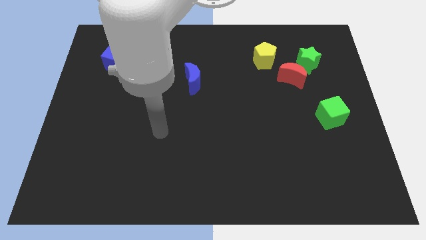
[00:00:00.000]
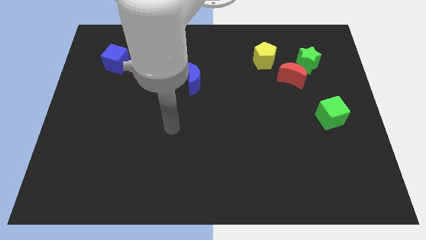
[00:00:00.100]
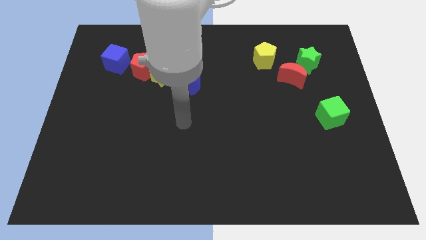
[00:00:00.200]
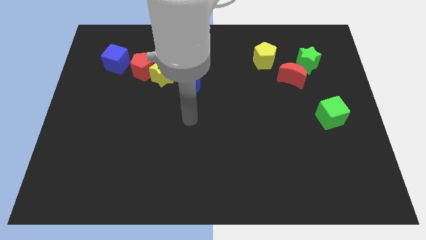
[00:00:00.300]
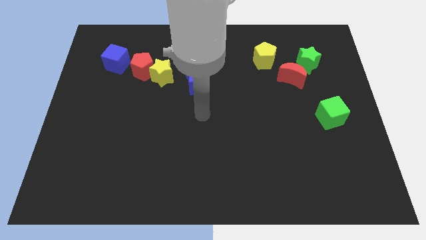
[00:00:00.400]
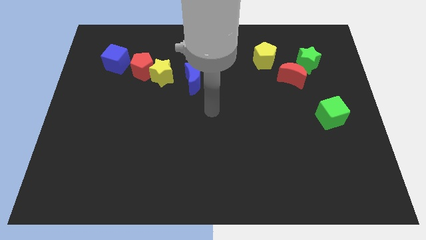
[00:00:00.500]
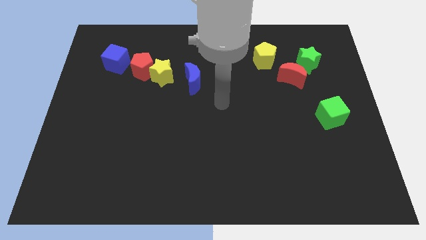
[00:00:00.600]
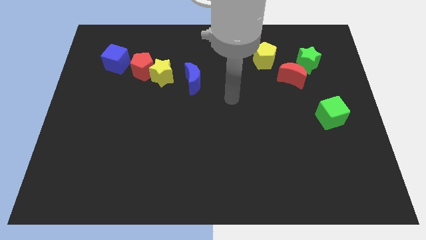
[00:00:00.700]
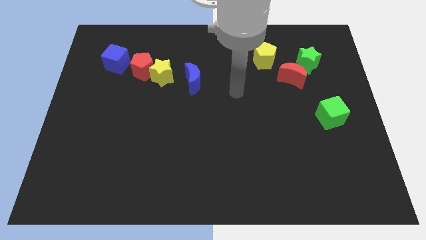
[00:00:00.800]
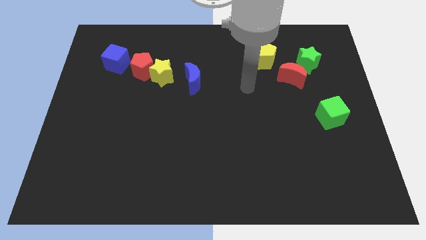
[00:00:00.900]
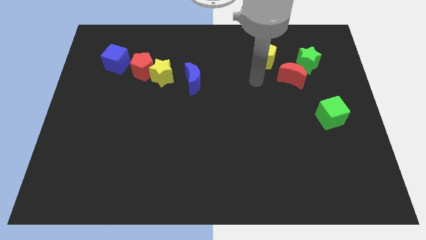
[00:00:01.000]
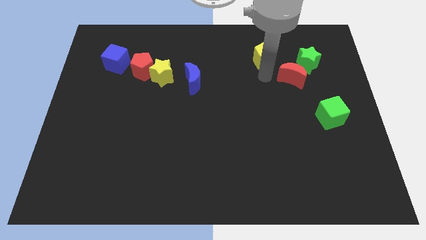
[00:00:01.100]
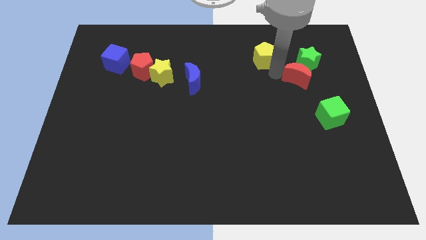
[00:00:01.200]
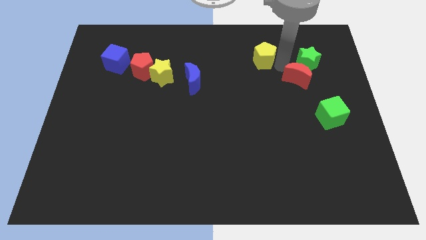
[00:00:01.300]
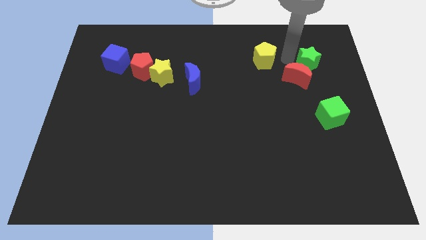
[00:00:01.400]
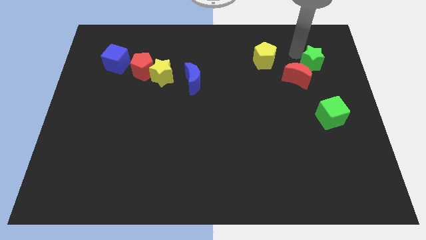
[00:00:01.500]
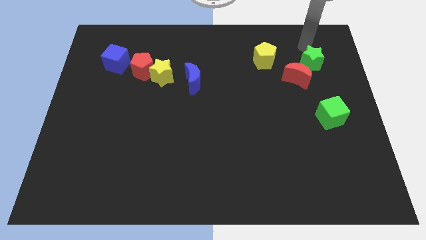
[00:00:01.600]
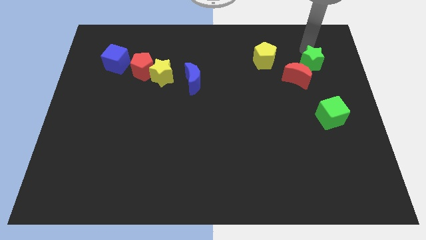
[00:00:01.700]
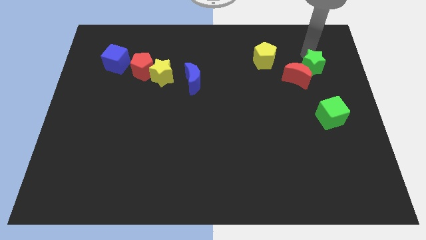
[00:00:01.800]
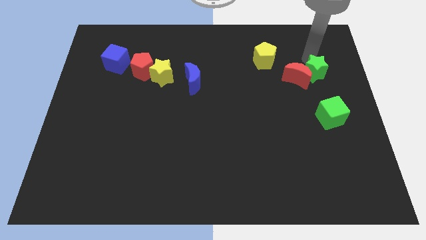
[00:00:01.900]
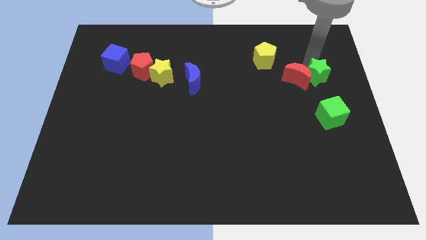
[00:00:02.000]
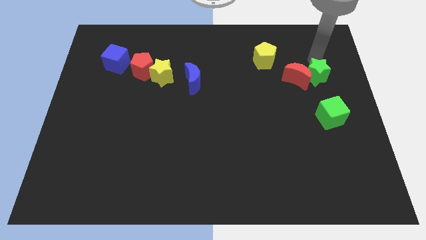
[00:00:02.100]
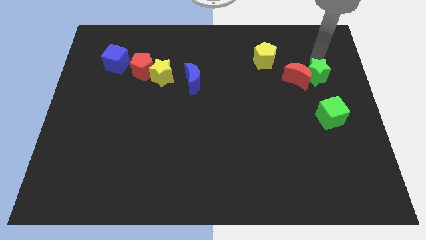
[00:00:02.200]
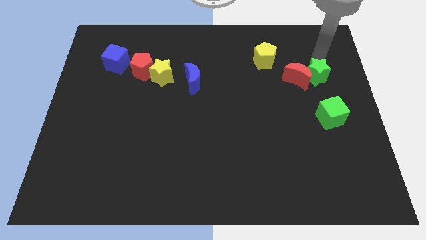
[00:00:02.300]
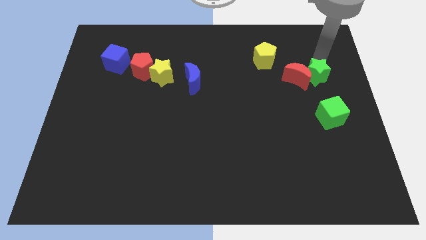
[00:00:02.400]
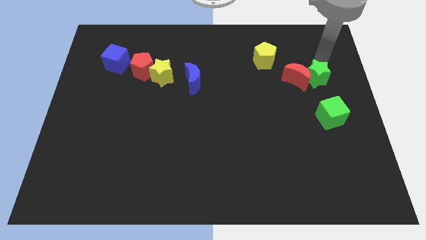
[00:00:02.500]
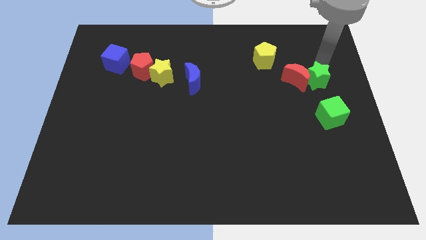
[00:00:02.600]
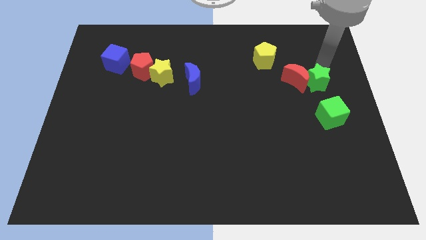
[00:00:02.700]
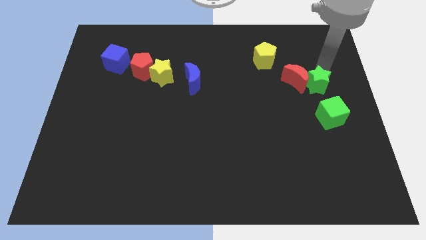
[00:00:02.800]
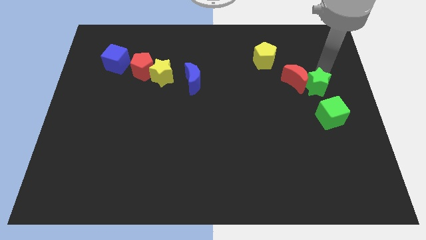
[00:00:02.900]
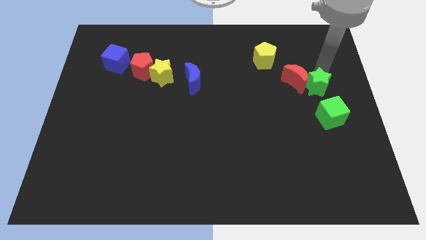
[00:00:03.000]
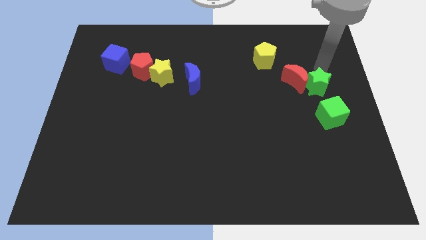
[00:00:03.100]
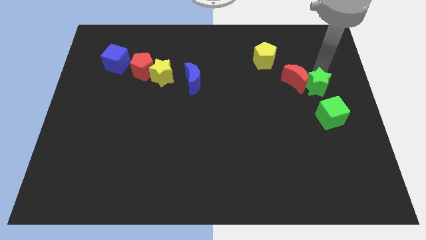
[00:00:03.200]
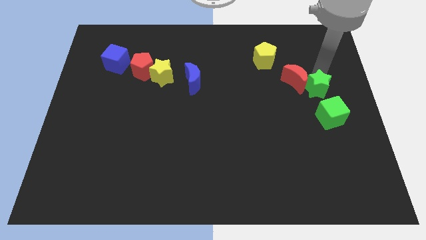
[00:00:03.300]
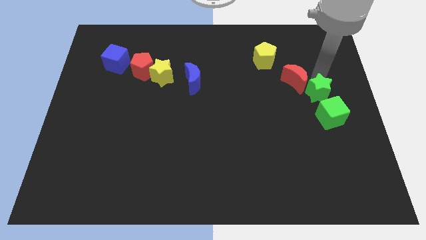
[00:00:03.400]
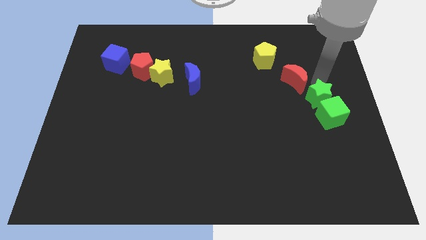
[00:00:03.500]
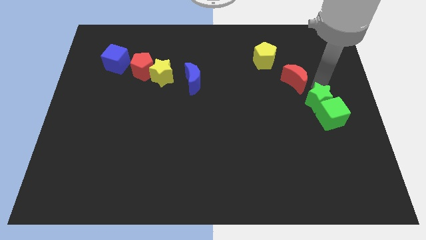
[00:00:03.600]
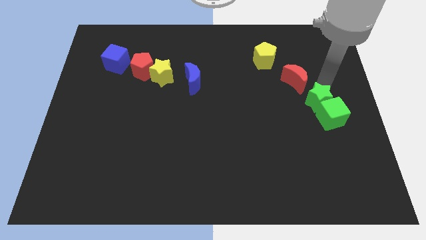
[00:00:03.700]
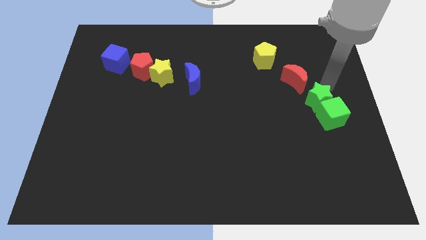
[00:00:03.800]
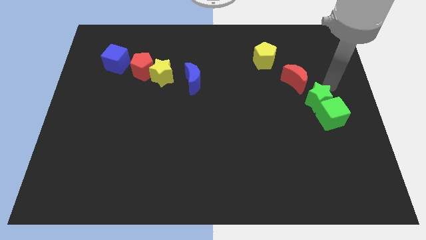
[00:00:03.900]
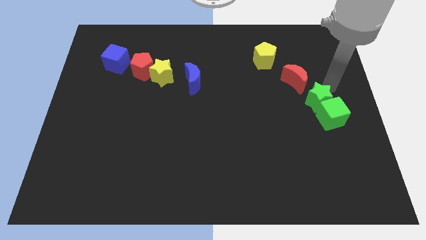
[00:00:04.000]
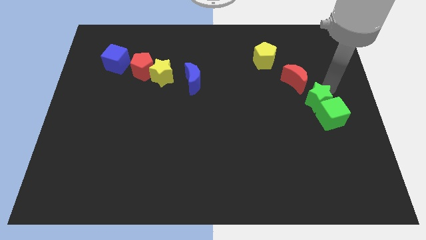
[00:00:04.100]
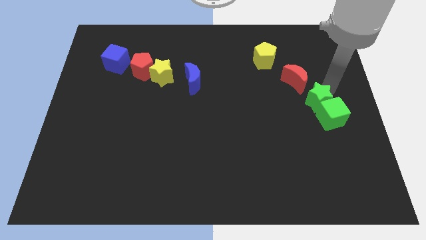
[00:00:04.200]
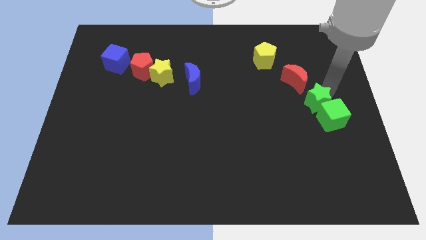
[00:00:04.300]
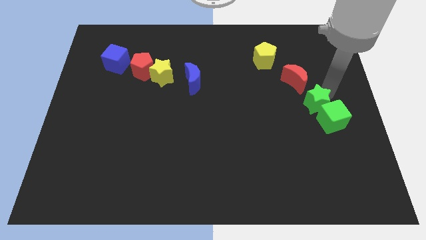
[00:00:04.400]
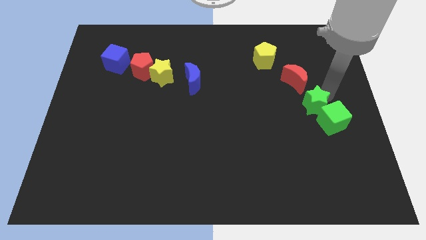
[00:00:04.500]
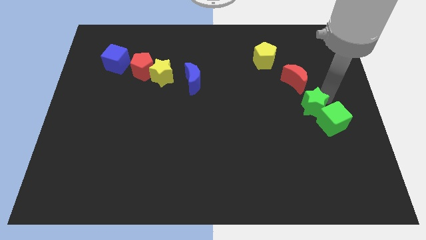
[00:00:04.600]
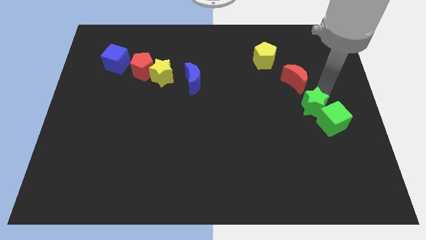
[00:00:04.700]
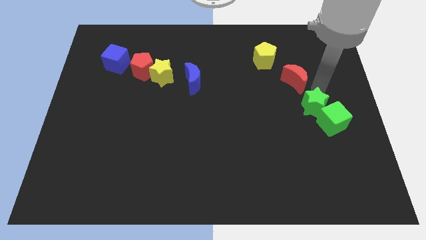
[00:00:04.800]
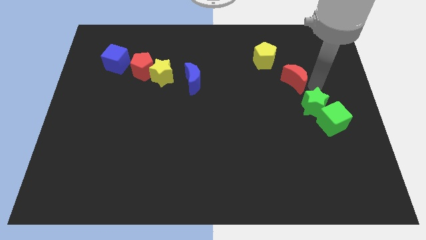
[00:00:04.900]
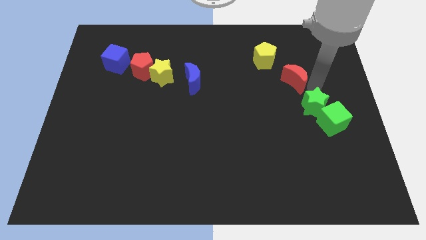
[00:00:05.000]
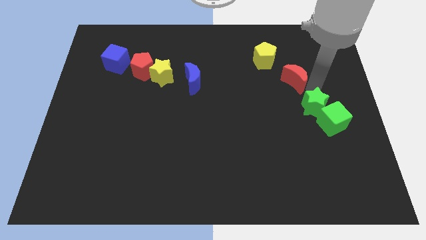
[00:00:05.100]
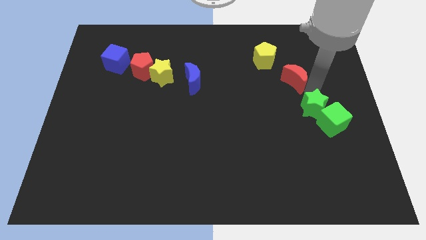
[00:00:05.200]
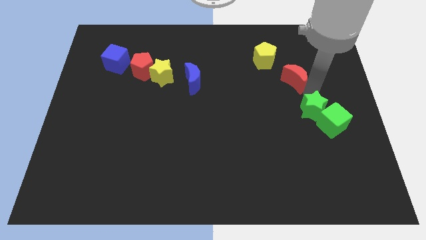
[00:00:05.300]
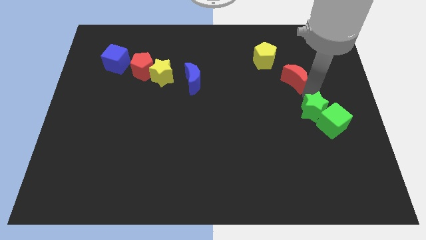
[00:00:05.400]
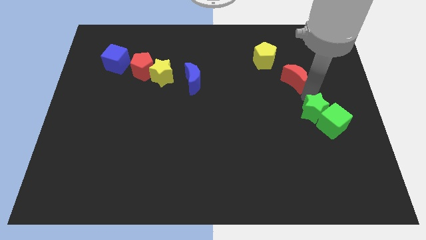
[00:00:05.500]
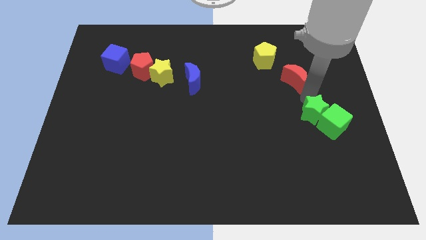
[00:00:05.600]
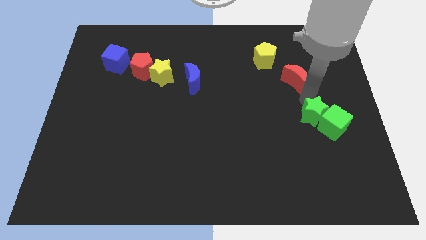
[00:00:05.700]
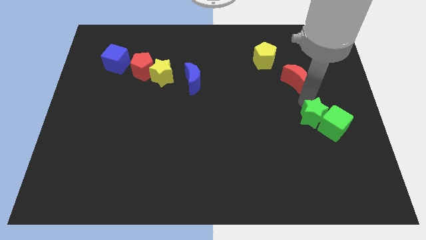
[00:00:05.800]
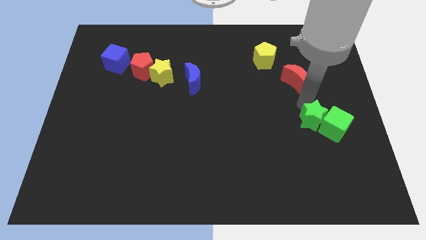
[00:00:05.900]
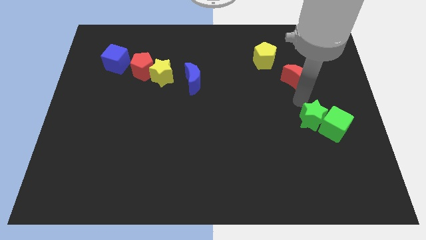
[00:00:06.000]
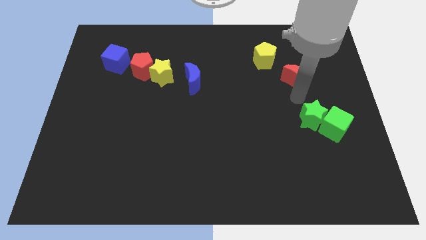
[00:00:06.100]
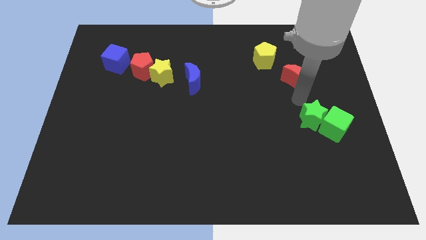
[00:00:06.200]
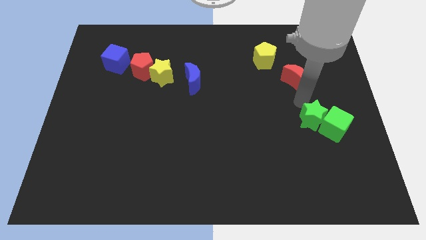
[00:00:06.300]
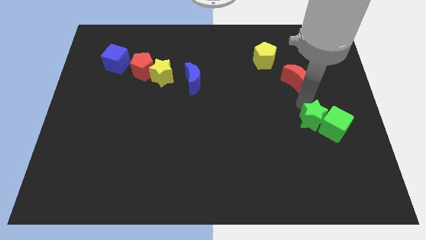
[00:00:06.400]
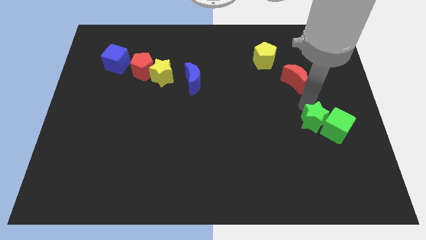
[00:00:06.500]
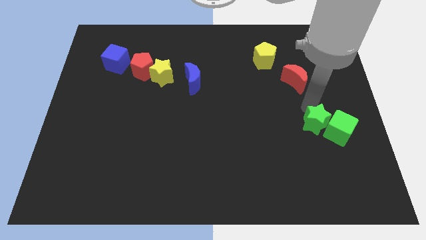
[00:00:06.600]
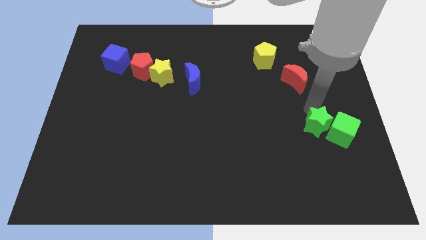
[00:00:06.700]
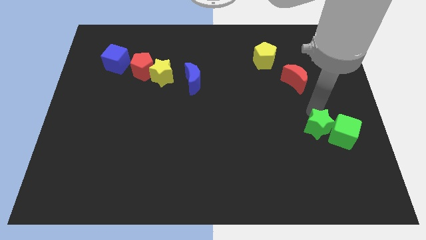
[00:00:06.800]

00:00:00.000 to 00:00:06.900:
move the green star down

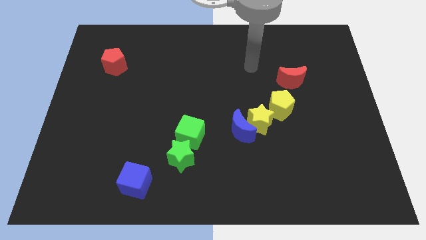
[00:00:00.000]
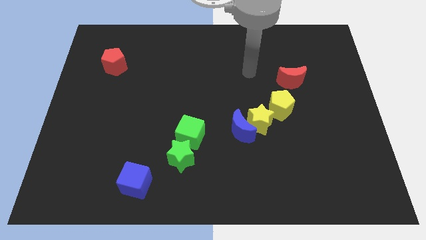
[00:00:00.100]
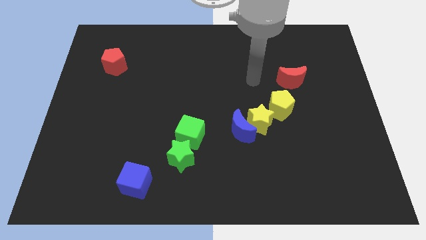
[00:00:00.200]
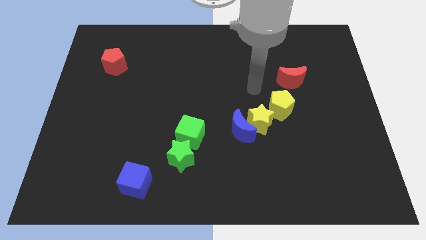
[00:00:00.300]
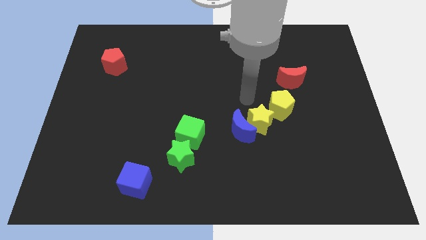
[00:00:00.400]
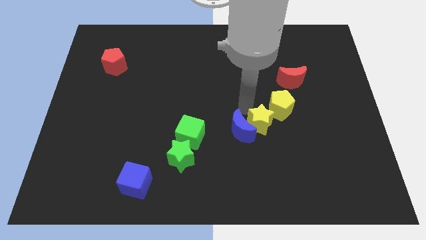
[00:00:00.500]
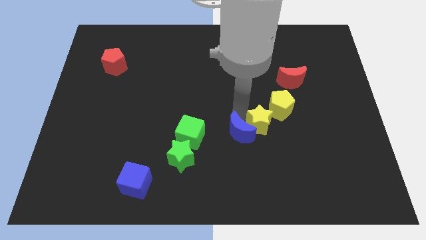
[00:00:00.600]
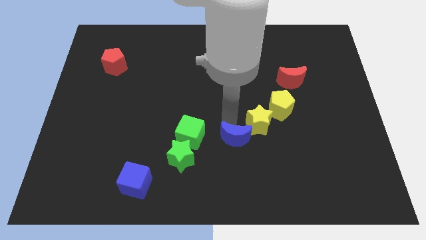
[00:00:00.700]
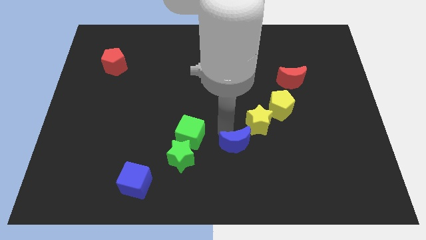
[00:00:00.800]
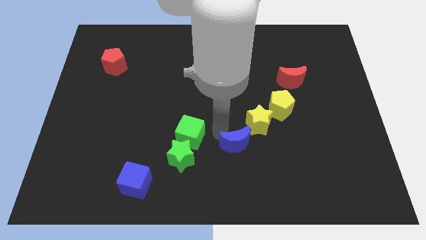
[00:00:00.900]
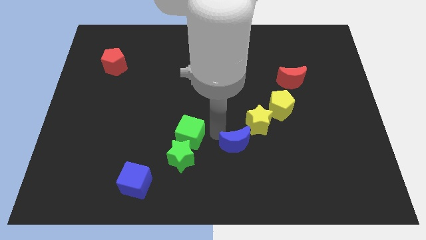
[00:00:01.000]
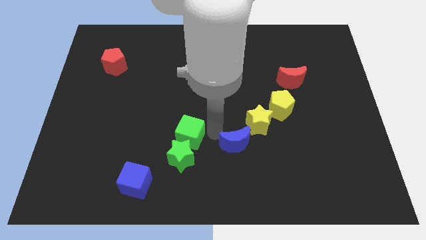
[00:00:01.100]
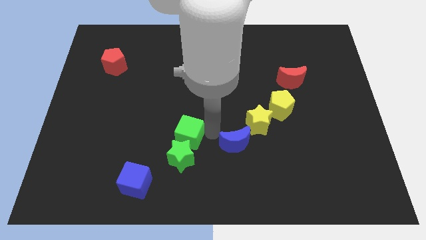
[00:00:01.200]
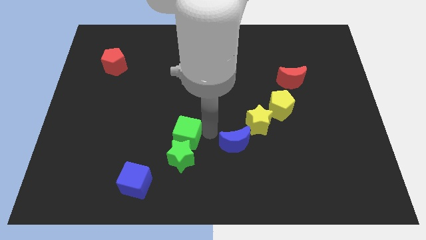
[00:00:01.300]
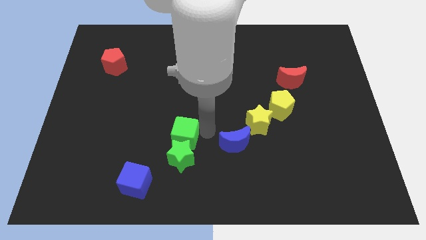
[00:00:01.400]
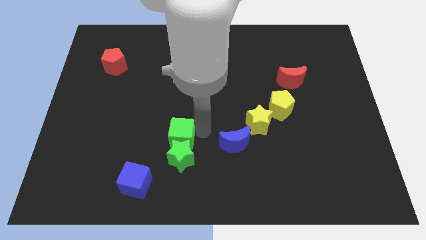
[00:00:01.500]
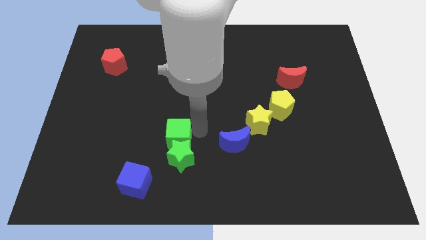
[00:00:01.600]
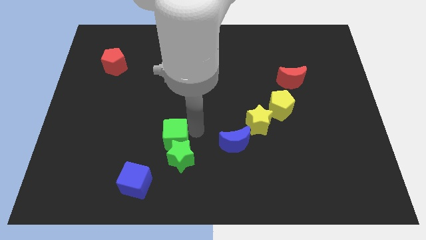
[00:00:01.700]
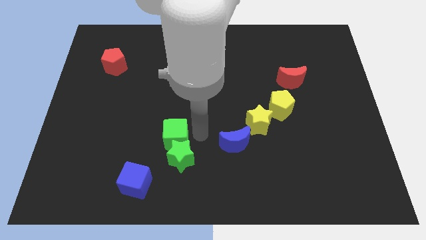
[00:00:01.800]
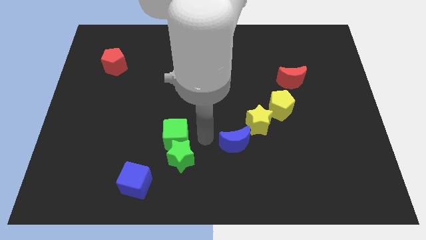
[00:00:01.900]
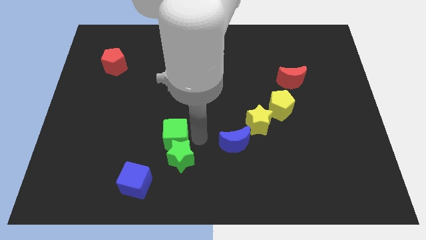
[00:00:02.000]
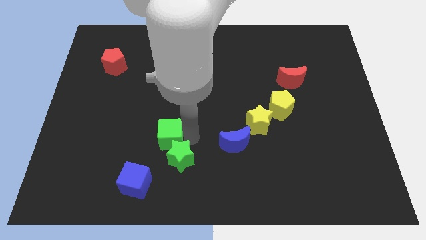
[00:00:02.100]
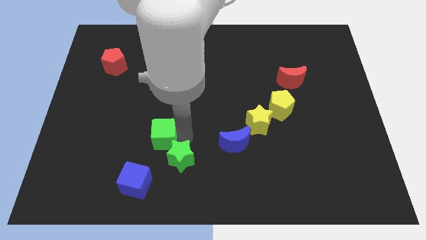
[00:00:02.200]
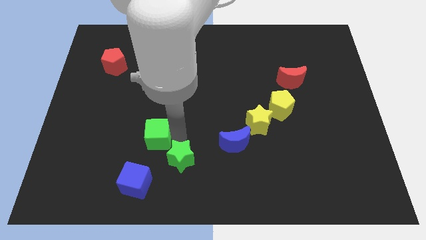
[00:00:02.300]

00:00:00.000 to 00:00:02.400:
push the green cube a bit to the left
